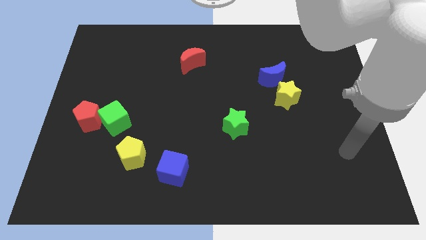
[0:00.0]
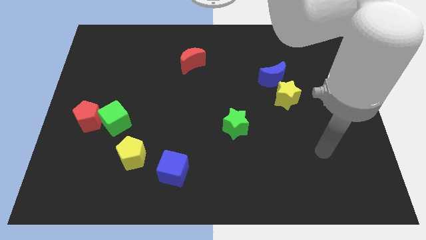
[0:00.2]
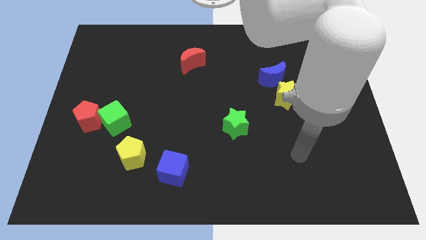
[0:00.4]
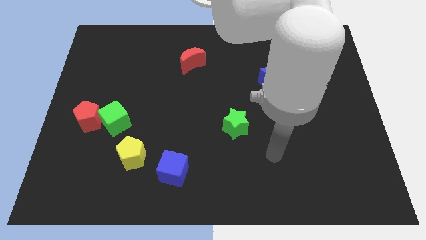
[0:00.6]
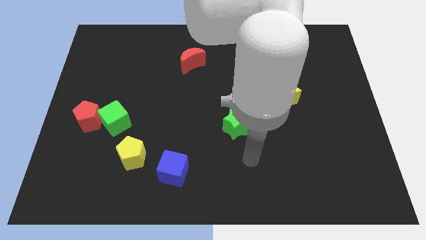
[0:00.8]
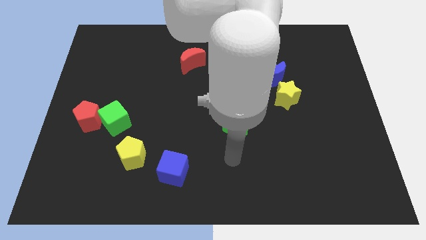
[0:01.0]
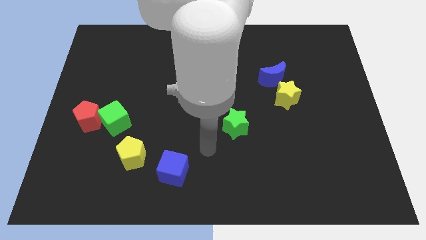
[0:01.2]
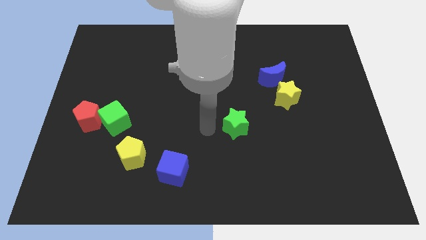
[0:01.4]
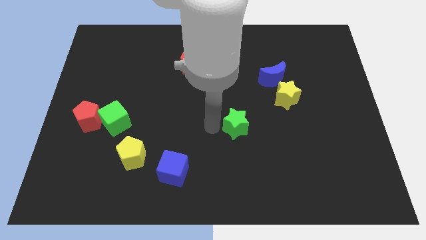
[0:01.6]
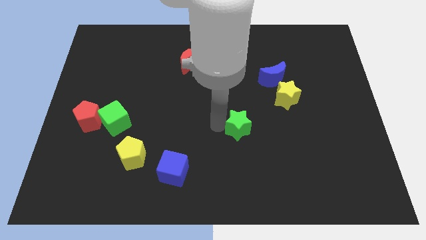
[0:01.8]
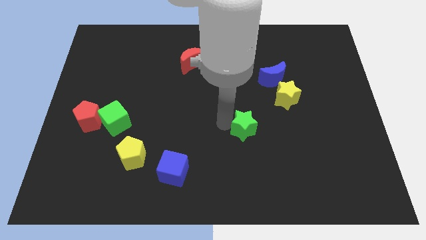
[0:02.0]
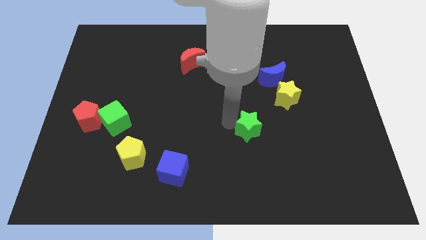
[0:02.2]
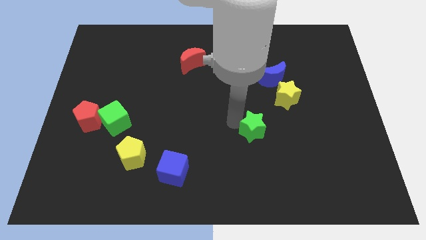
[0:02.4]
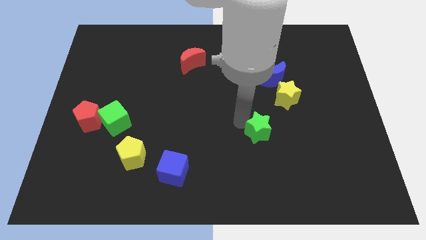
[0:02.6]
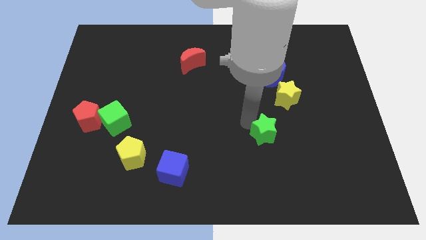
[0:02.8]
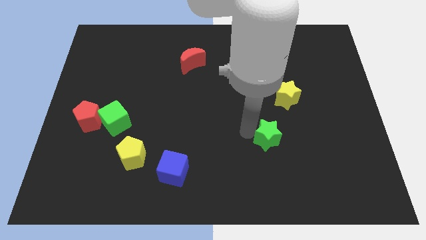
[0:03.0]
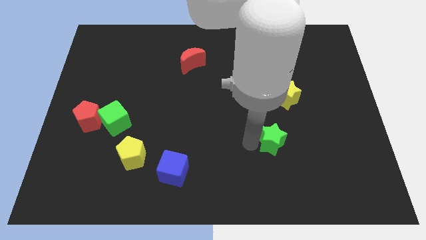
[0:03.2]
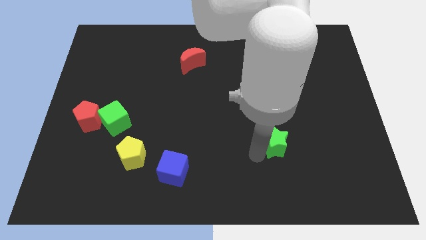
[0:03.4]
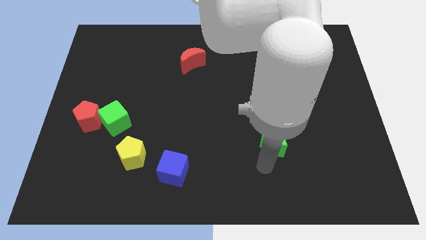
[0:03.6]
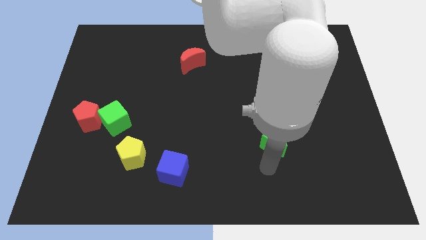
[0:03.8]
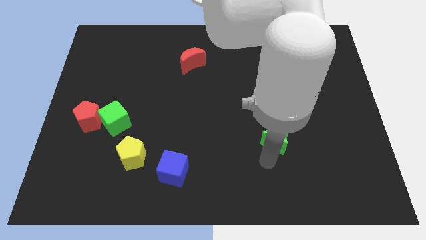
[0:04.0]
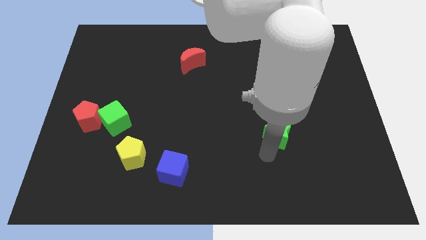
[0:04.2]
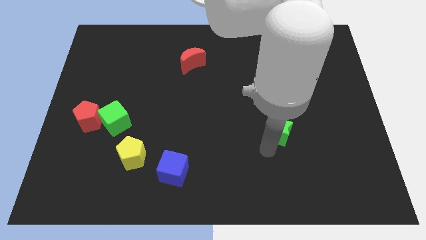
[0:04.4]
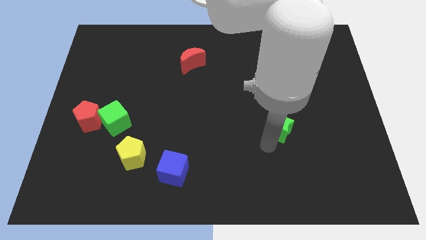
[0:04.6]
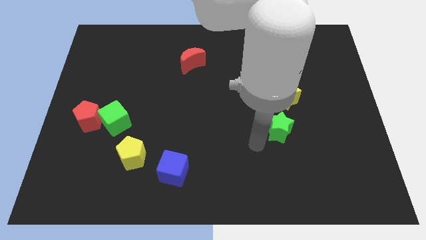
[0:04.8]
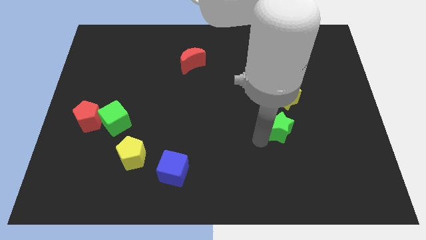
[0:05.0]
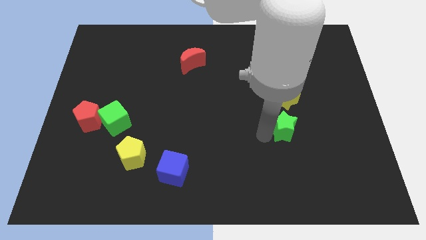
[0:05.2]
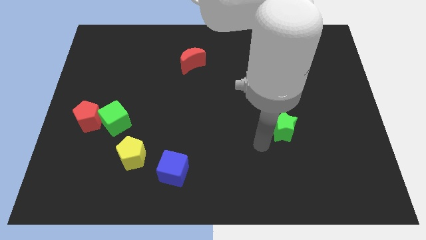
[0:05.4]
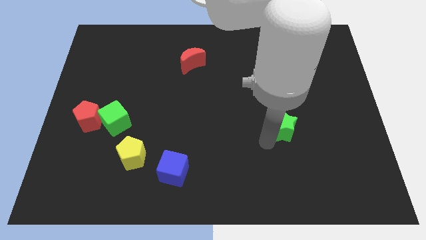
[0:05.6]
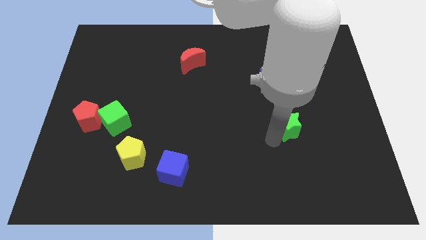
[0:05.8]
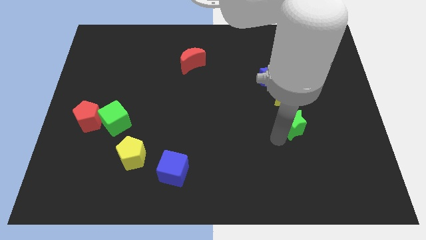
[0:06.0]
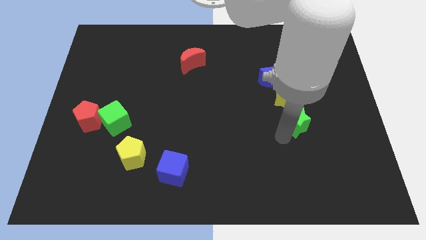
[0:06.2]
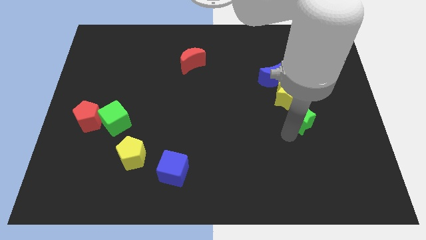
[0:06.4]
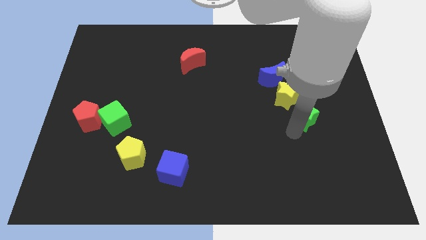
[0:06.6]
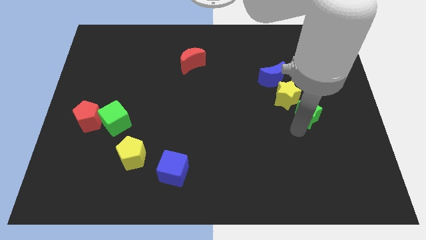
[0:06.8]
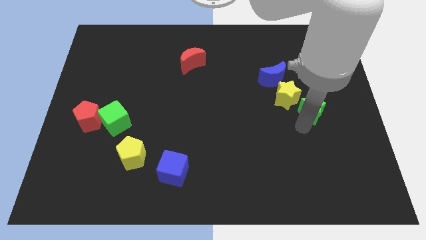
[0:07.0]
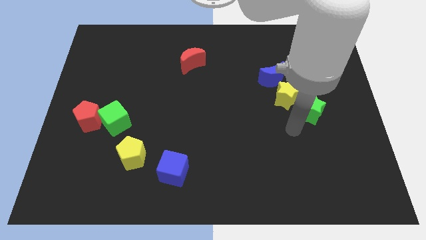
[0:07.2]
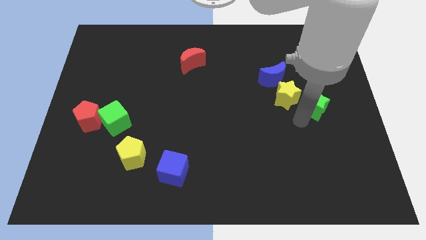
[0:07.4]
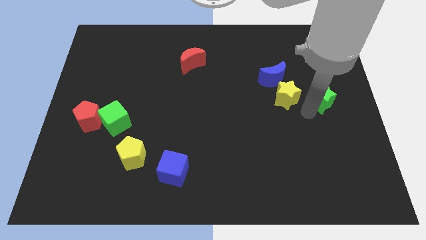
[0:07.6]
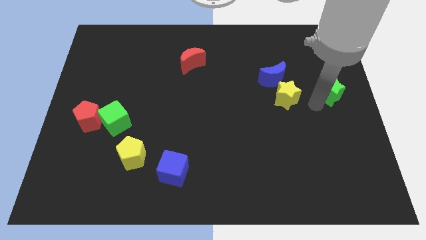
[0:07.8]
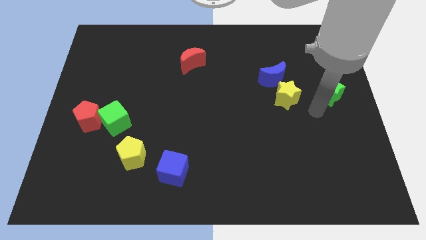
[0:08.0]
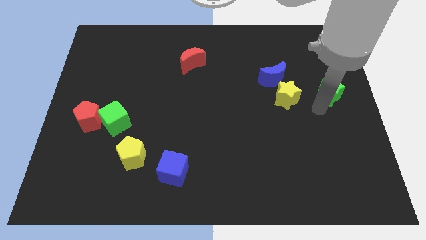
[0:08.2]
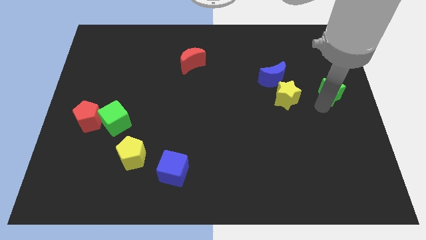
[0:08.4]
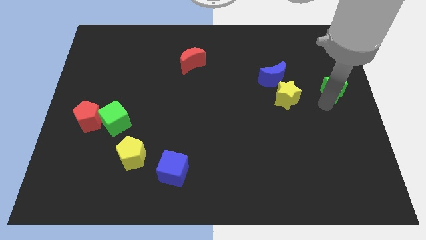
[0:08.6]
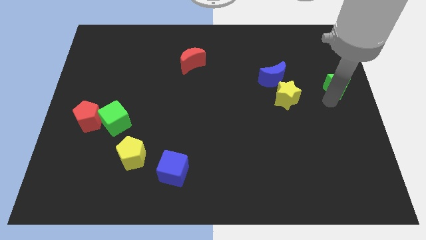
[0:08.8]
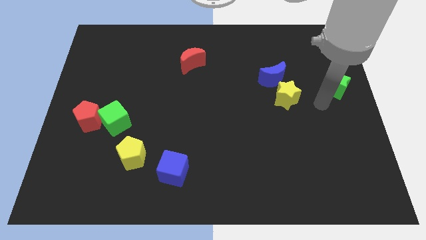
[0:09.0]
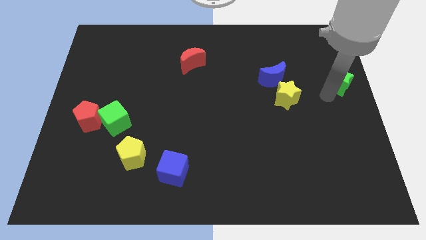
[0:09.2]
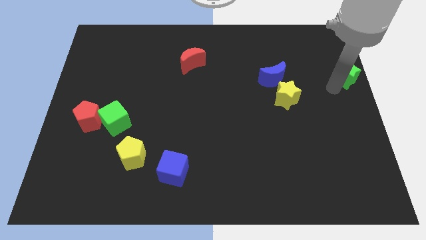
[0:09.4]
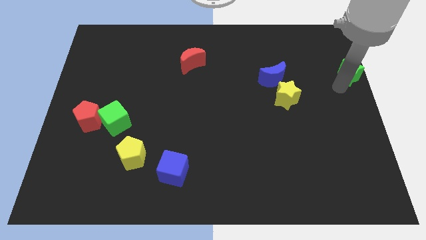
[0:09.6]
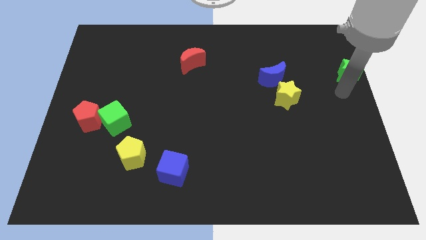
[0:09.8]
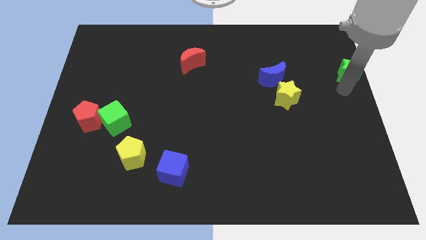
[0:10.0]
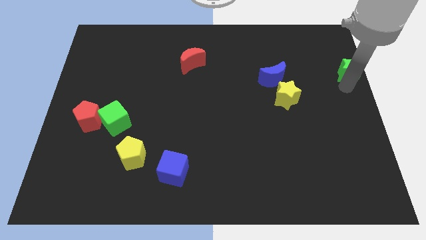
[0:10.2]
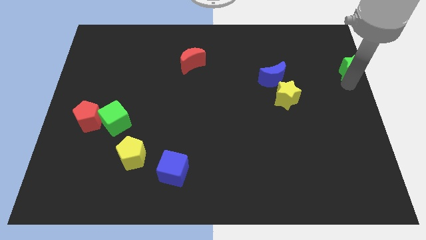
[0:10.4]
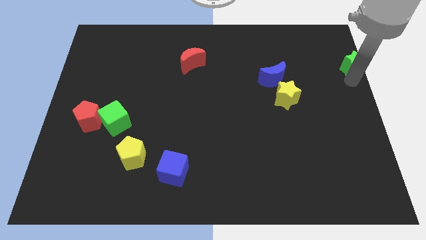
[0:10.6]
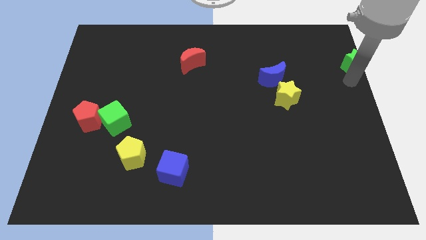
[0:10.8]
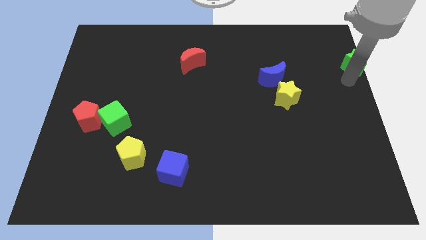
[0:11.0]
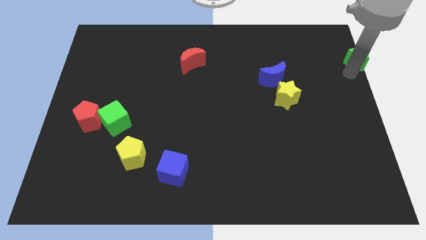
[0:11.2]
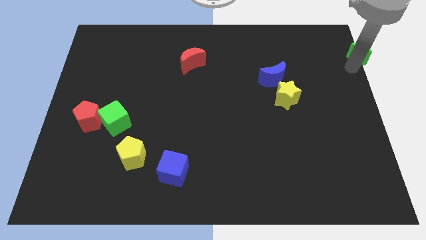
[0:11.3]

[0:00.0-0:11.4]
slide the green star to the top right corner

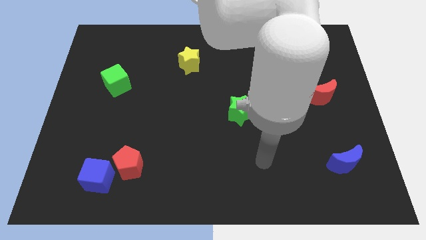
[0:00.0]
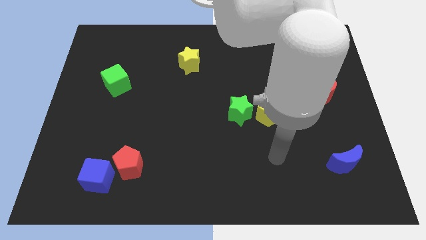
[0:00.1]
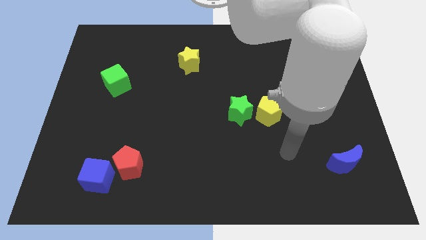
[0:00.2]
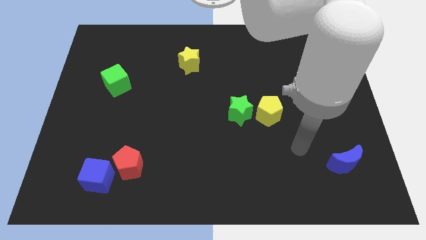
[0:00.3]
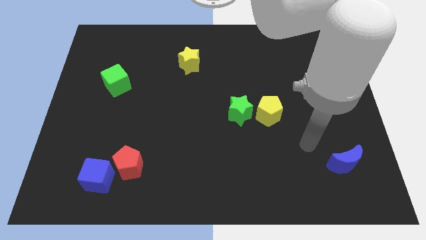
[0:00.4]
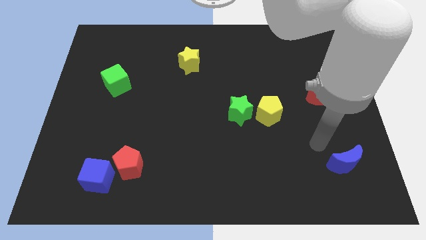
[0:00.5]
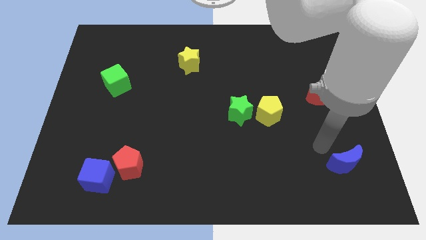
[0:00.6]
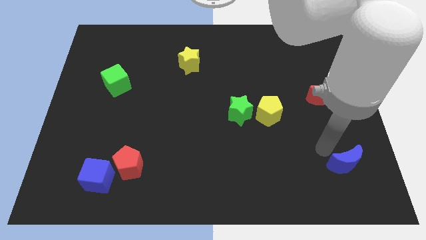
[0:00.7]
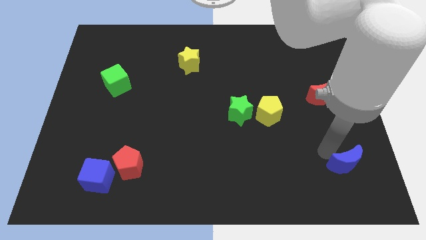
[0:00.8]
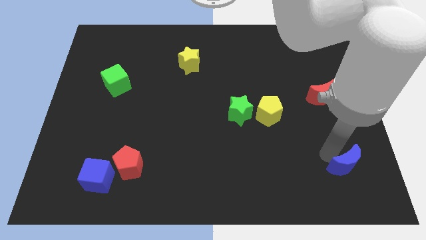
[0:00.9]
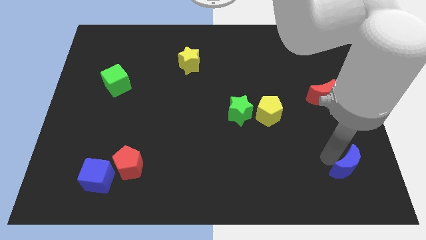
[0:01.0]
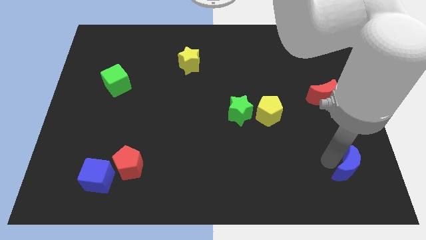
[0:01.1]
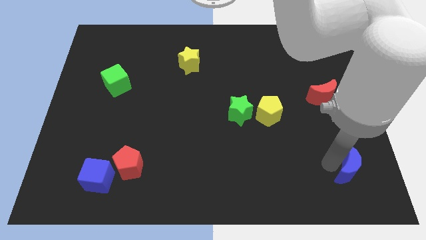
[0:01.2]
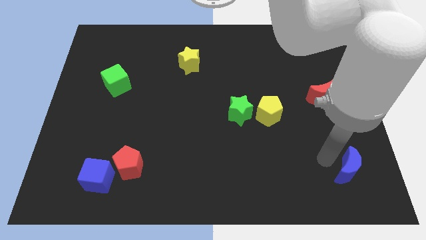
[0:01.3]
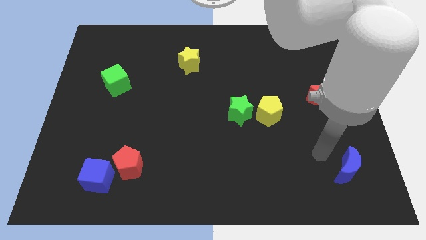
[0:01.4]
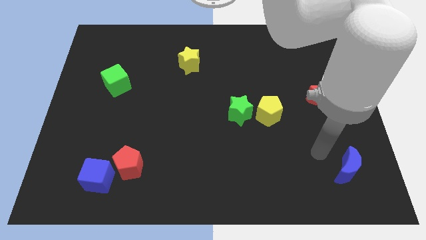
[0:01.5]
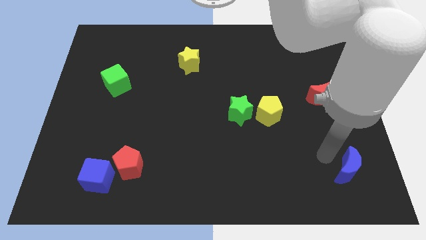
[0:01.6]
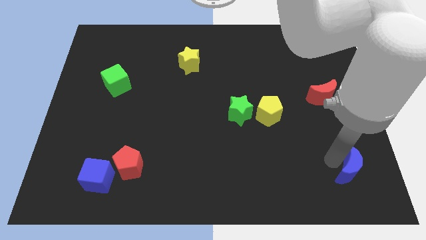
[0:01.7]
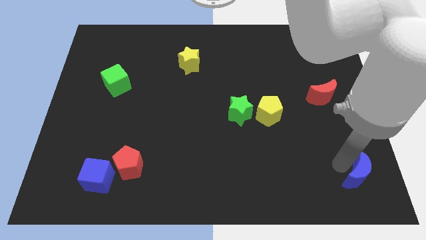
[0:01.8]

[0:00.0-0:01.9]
move the blue moon to the bottom right
